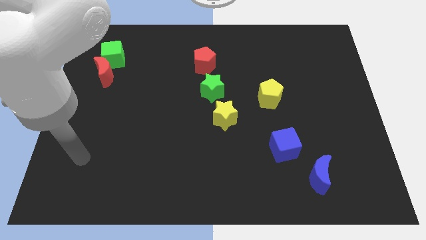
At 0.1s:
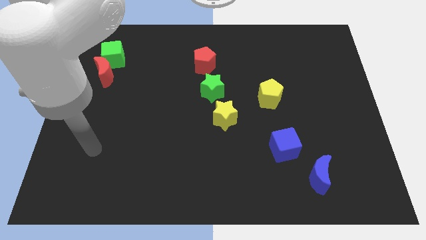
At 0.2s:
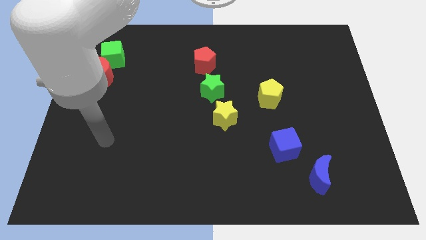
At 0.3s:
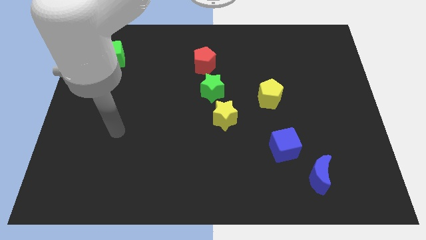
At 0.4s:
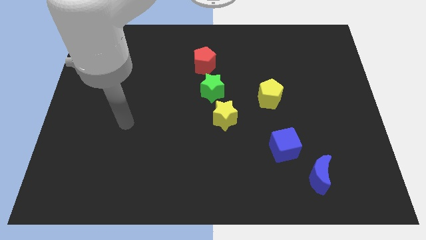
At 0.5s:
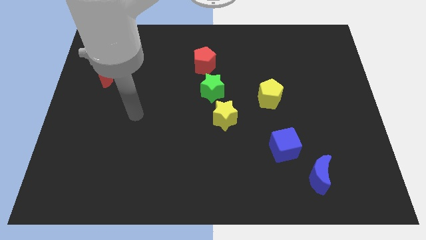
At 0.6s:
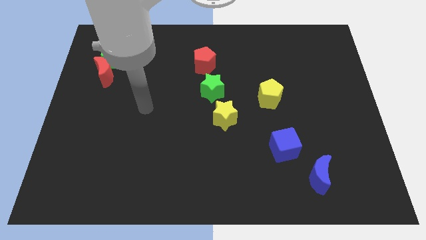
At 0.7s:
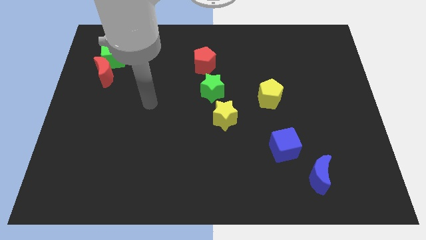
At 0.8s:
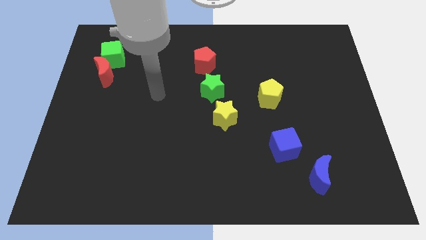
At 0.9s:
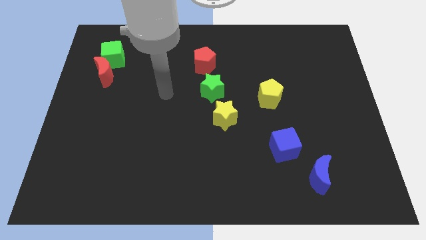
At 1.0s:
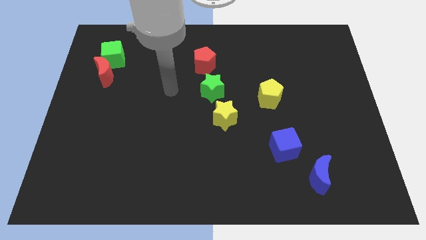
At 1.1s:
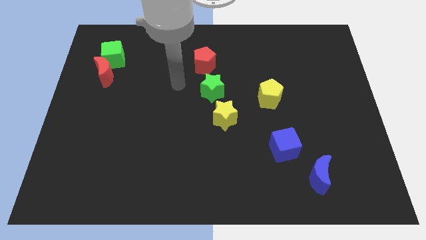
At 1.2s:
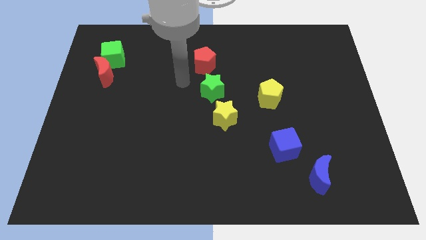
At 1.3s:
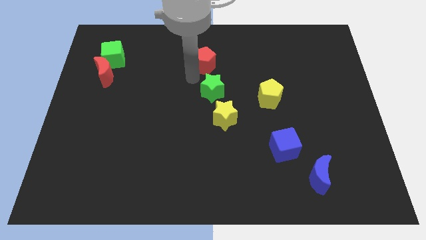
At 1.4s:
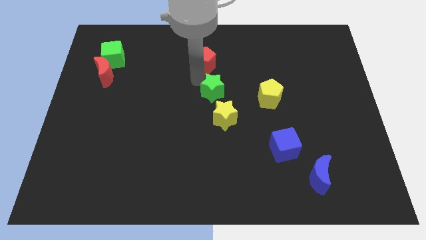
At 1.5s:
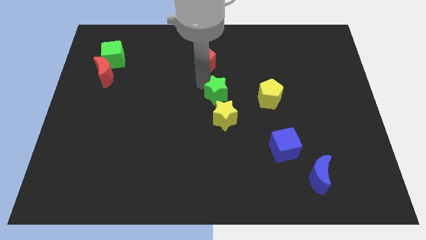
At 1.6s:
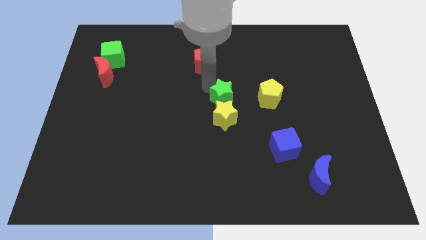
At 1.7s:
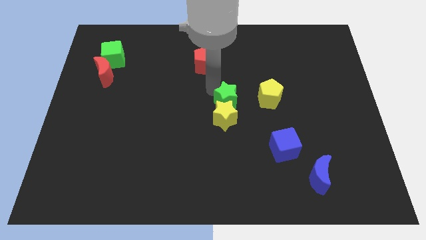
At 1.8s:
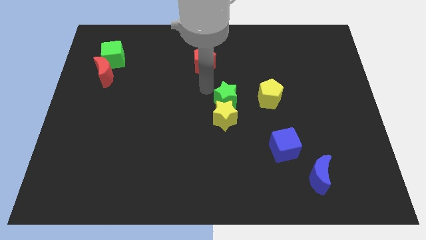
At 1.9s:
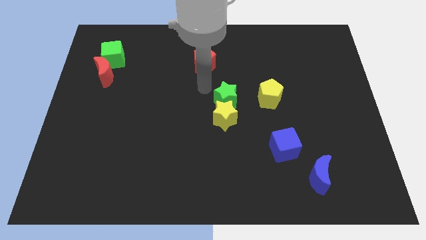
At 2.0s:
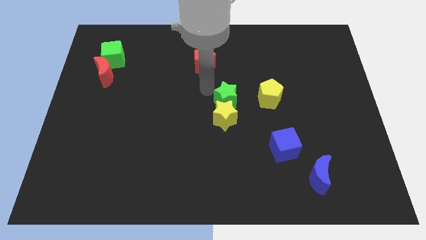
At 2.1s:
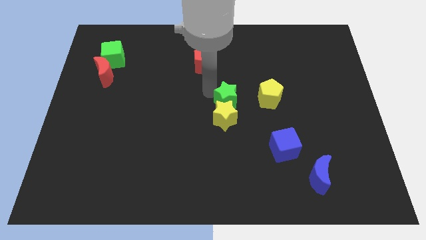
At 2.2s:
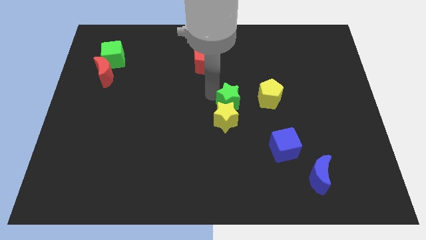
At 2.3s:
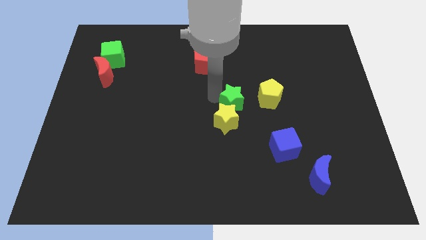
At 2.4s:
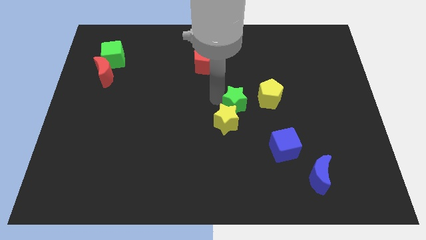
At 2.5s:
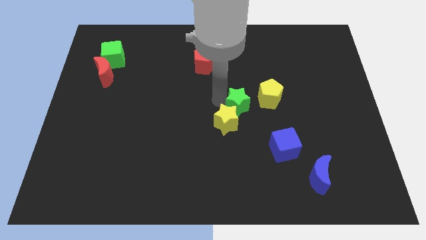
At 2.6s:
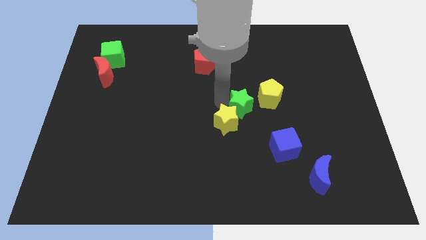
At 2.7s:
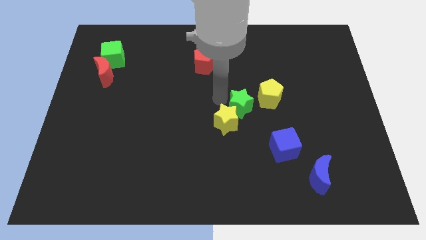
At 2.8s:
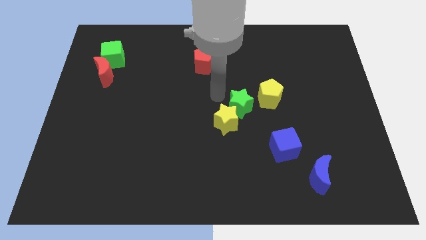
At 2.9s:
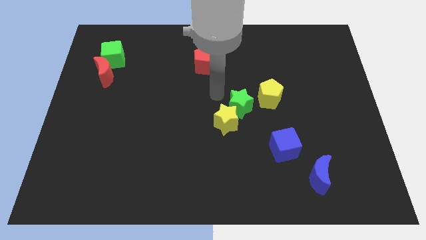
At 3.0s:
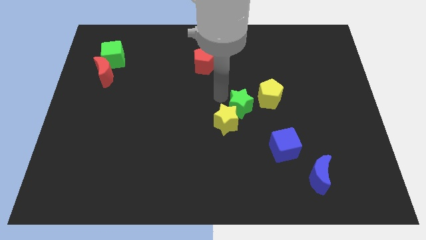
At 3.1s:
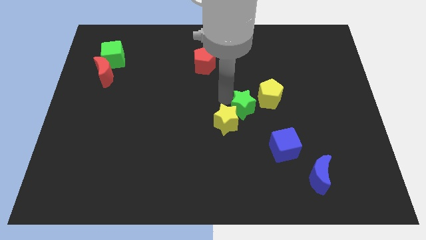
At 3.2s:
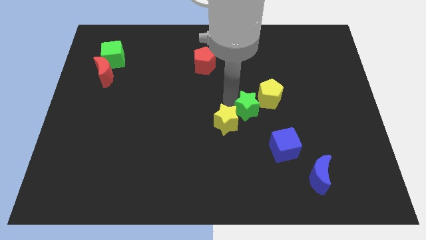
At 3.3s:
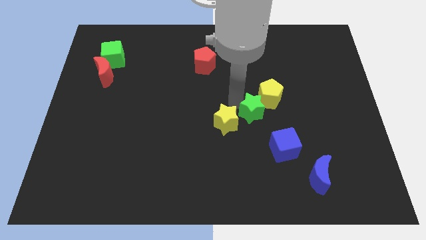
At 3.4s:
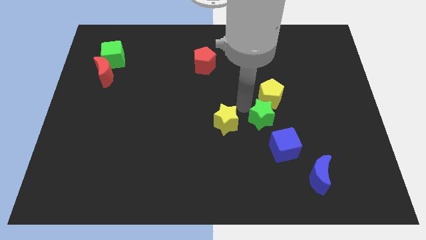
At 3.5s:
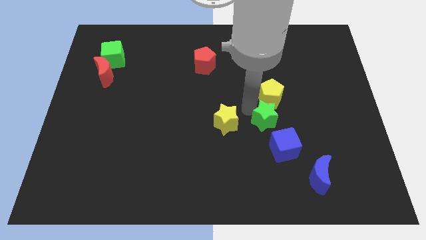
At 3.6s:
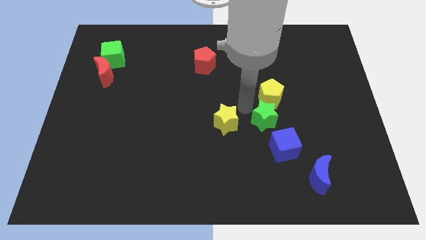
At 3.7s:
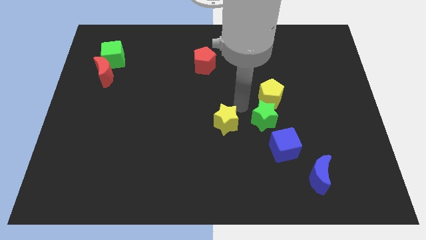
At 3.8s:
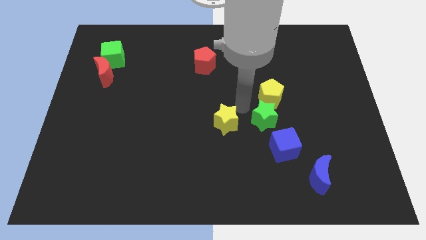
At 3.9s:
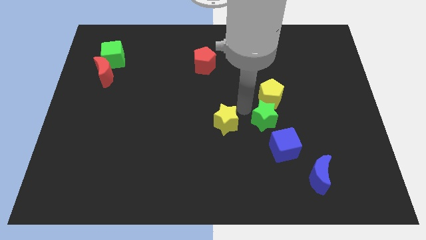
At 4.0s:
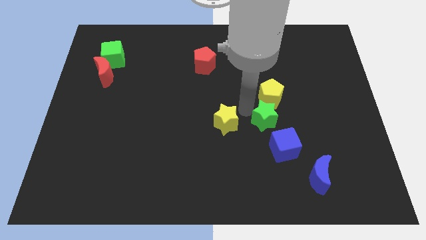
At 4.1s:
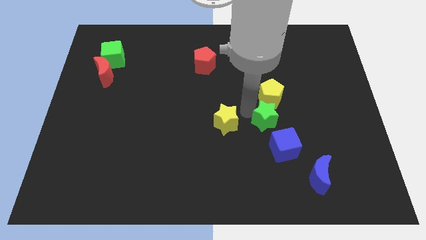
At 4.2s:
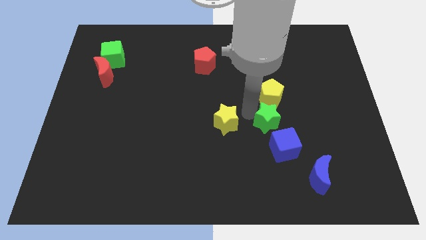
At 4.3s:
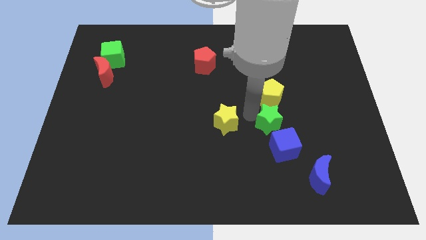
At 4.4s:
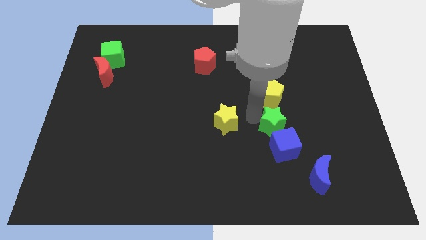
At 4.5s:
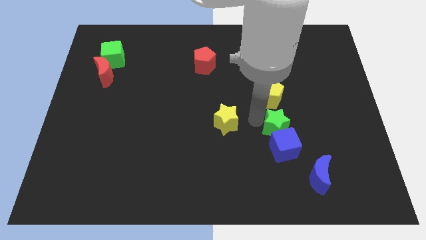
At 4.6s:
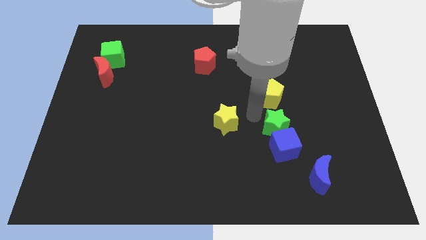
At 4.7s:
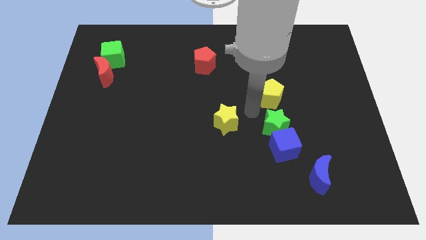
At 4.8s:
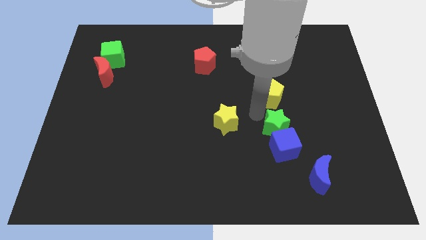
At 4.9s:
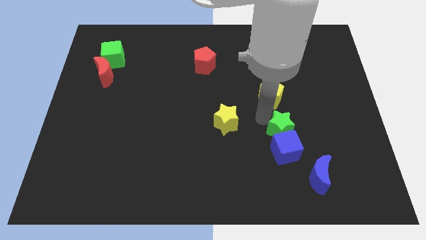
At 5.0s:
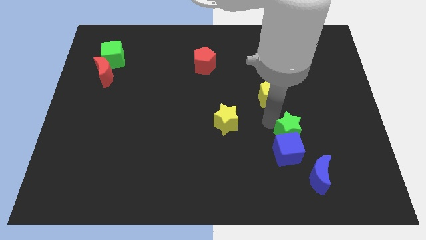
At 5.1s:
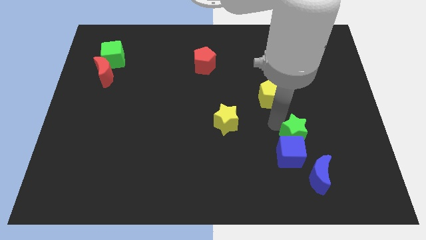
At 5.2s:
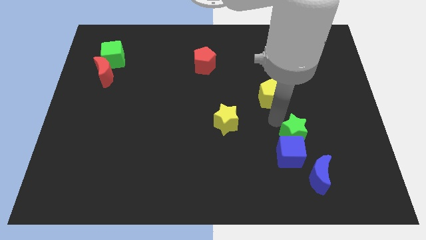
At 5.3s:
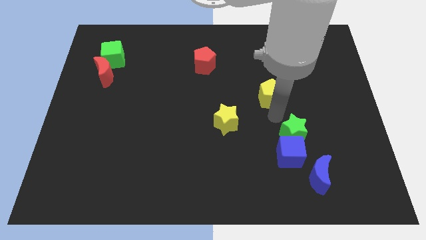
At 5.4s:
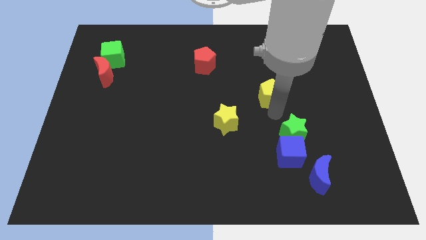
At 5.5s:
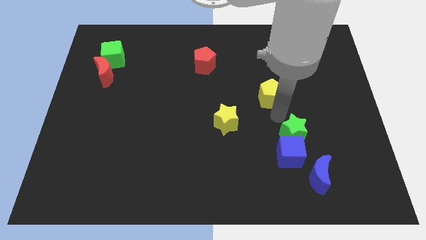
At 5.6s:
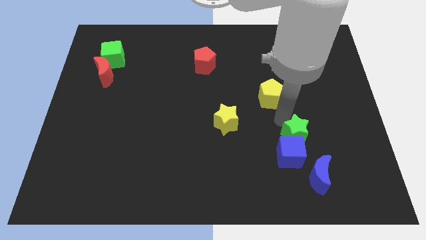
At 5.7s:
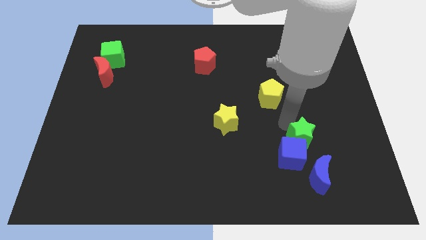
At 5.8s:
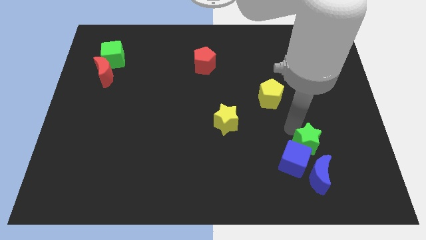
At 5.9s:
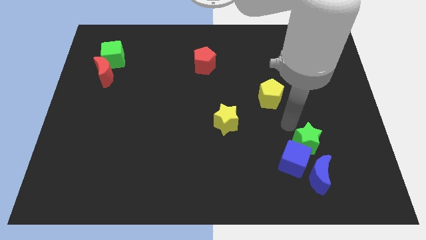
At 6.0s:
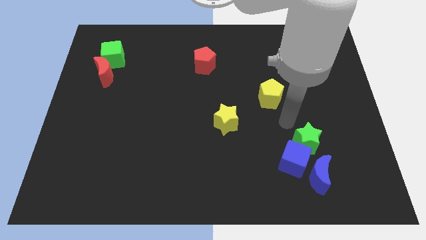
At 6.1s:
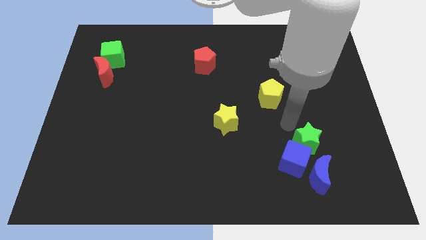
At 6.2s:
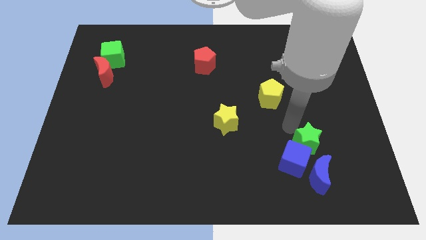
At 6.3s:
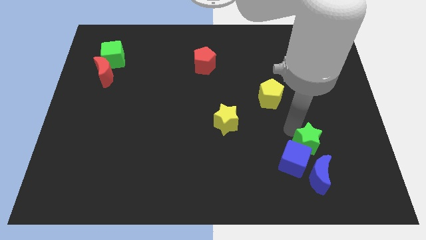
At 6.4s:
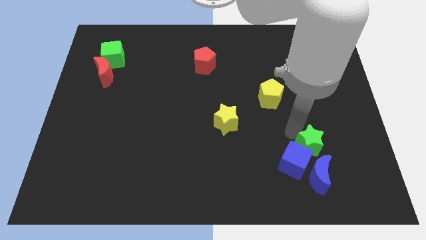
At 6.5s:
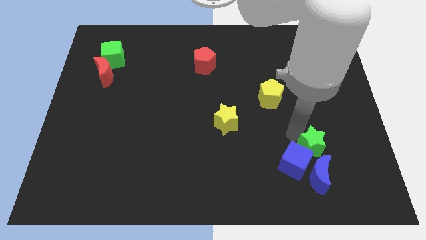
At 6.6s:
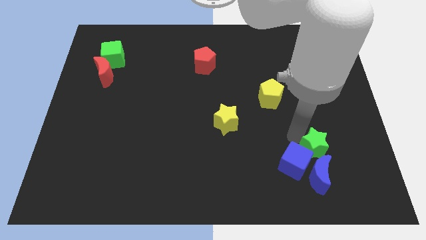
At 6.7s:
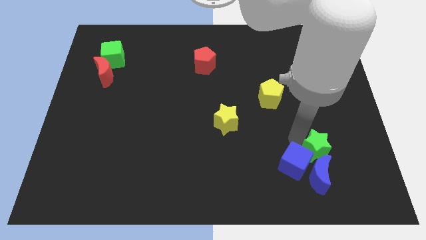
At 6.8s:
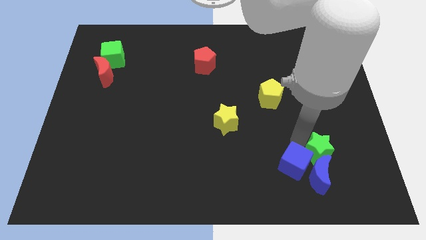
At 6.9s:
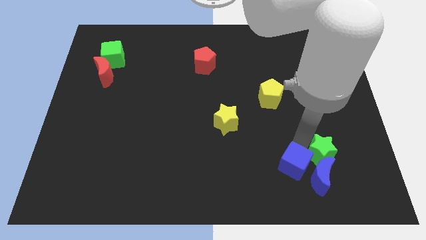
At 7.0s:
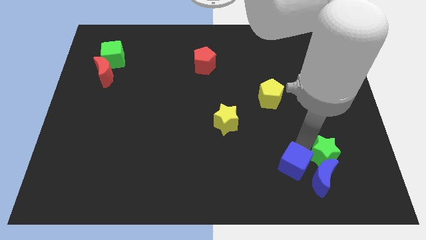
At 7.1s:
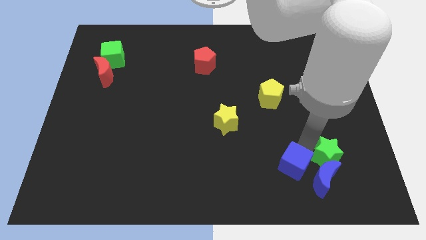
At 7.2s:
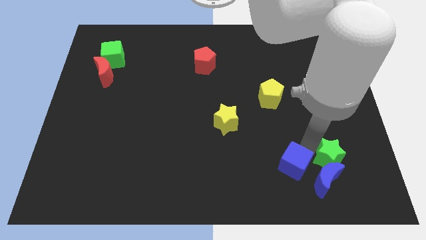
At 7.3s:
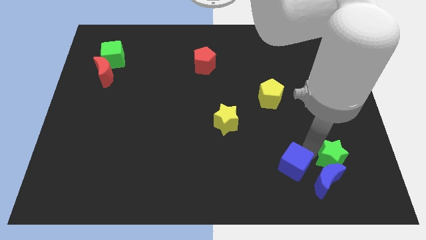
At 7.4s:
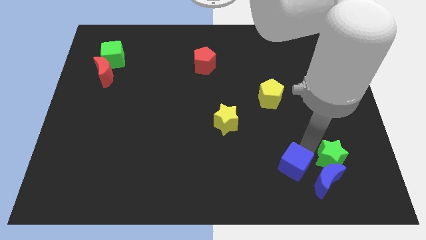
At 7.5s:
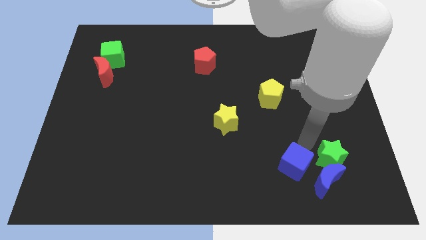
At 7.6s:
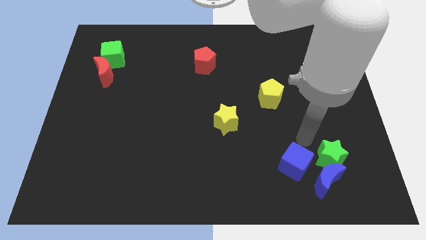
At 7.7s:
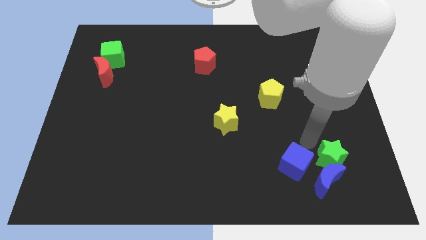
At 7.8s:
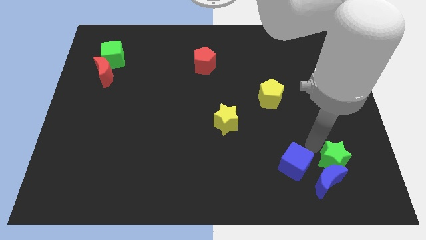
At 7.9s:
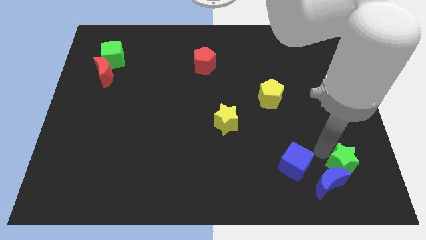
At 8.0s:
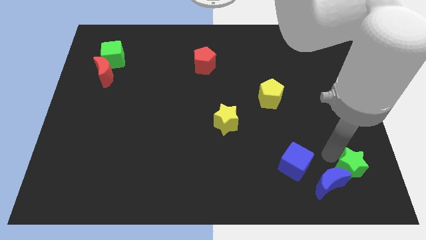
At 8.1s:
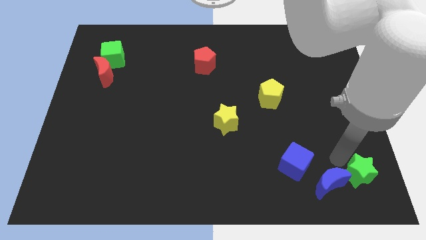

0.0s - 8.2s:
put the green star to the lower right corner
